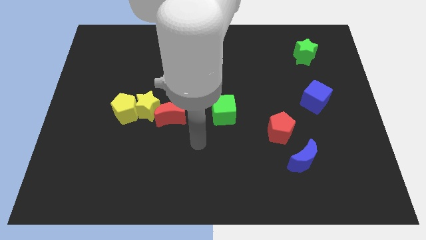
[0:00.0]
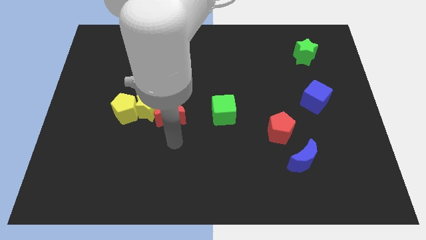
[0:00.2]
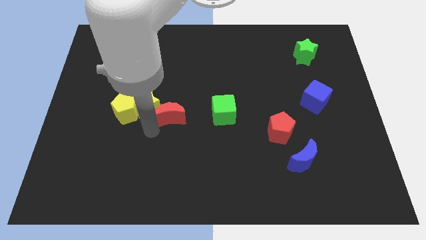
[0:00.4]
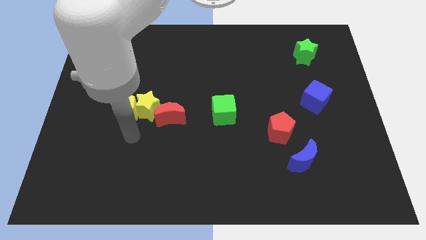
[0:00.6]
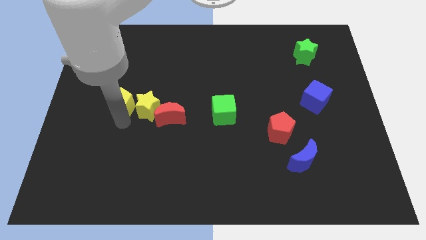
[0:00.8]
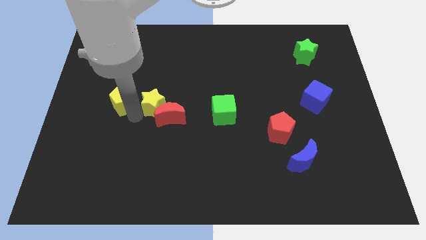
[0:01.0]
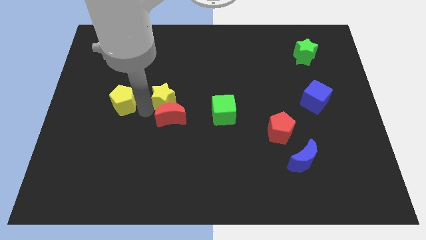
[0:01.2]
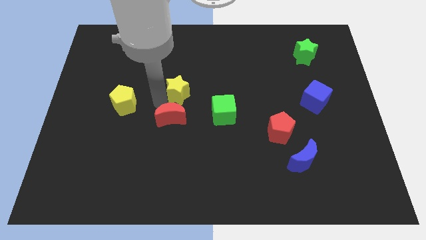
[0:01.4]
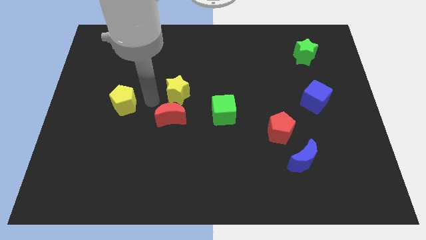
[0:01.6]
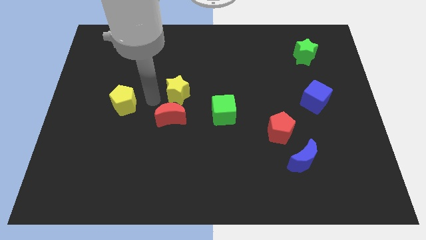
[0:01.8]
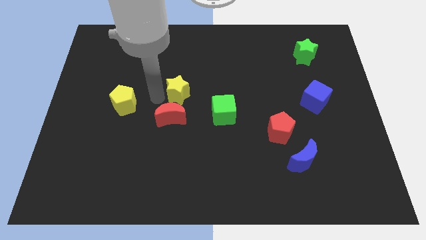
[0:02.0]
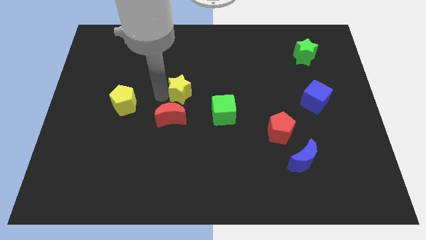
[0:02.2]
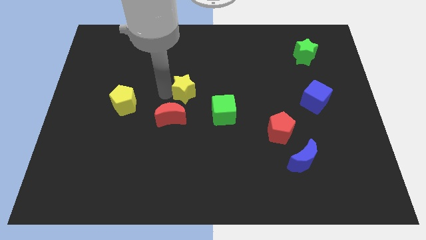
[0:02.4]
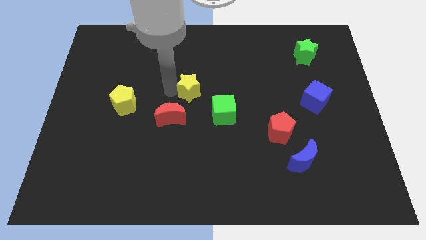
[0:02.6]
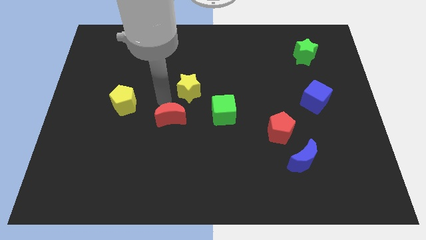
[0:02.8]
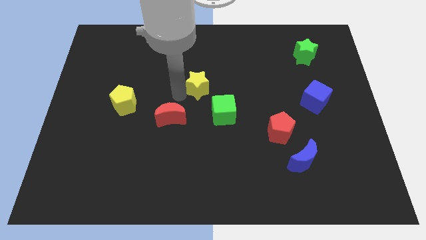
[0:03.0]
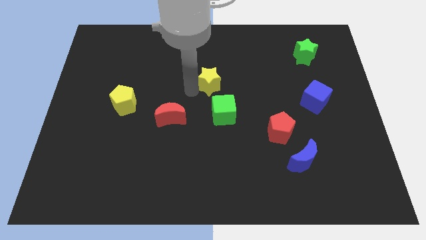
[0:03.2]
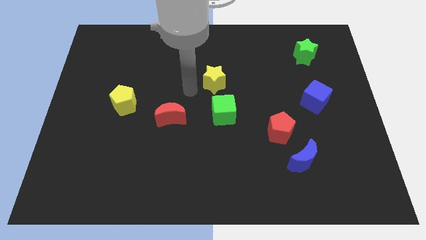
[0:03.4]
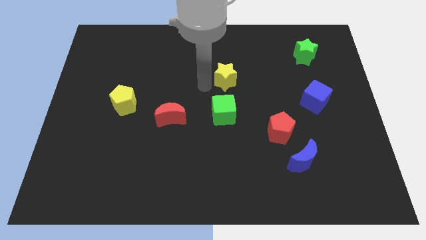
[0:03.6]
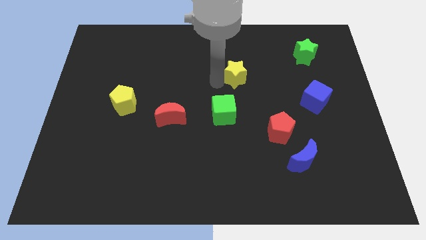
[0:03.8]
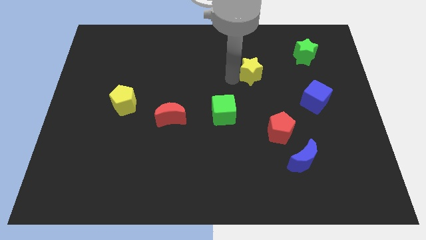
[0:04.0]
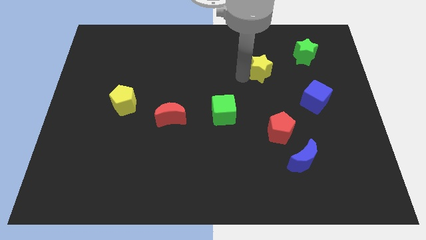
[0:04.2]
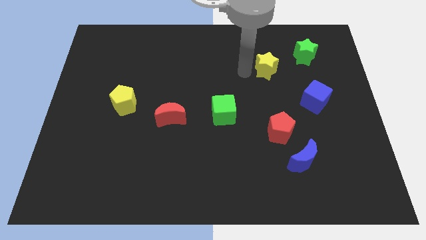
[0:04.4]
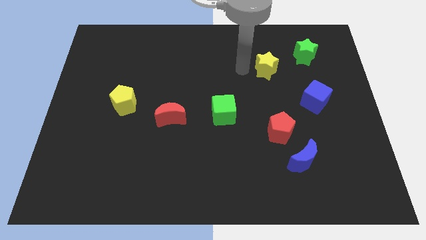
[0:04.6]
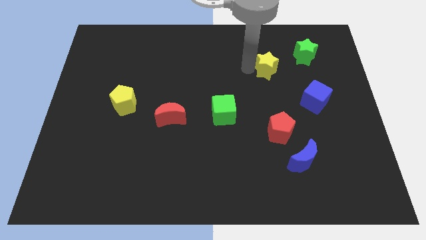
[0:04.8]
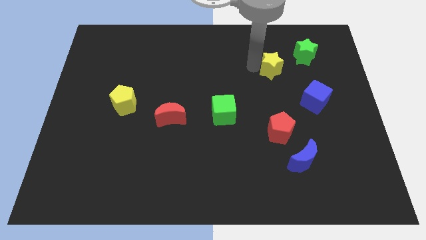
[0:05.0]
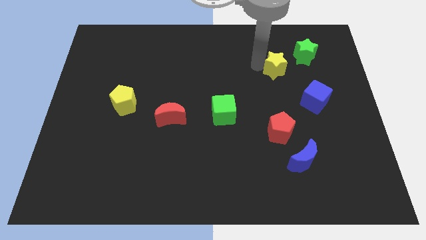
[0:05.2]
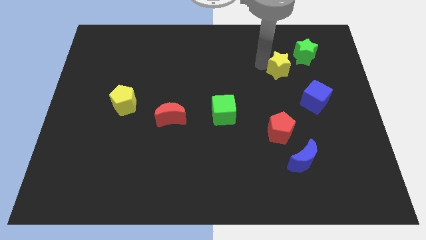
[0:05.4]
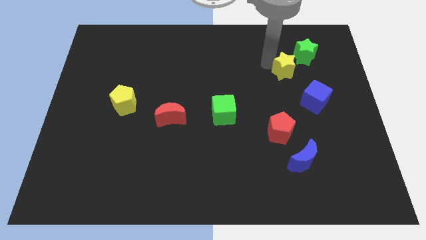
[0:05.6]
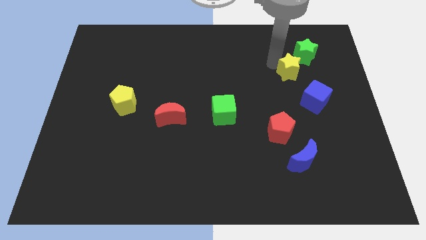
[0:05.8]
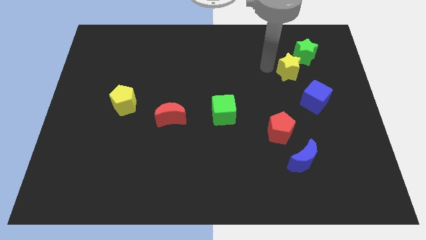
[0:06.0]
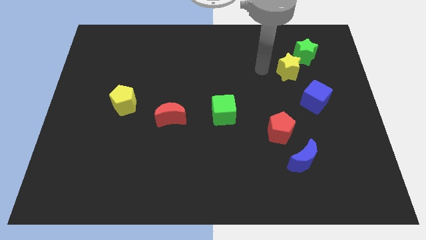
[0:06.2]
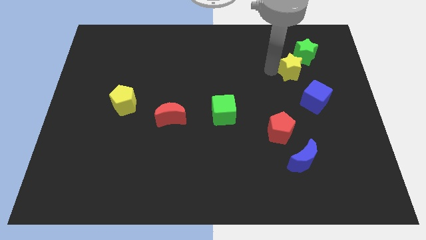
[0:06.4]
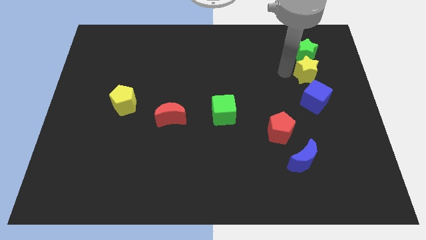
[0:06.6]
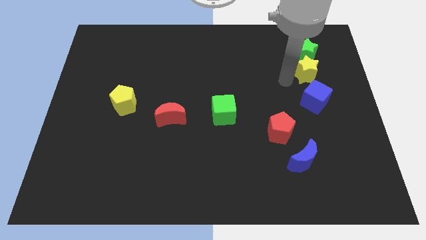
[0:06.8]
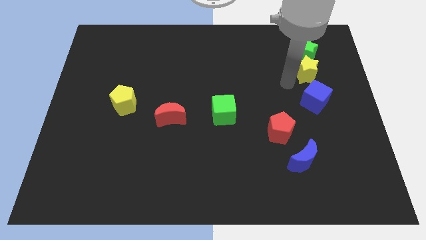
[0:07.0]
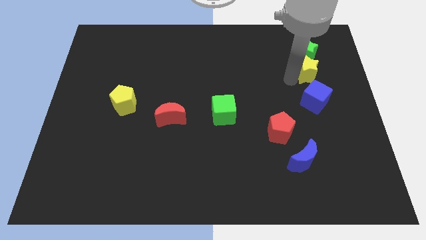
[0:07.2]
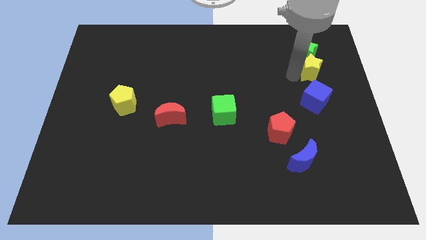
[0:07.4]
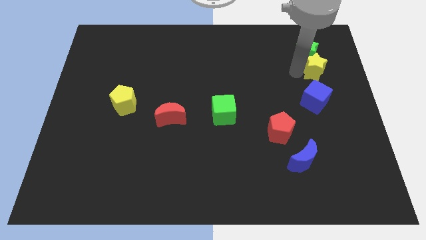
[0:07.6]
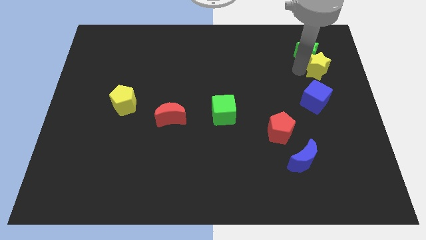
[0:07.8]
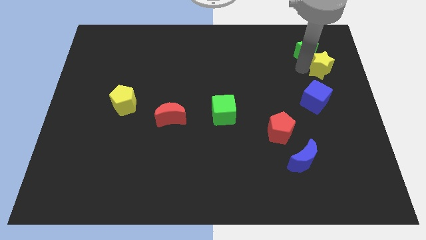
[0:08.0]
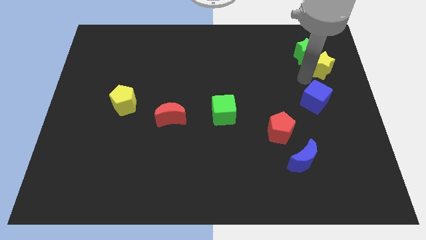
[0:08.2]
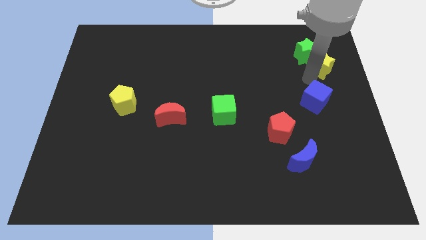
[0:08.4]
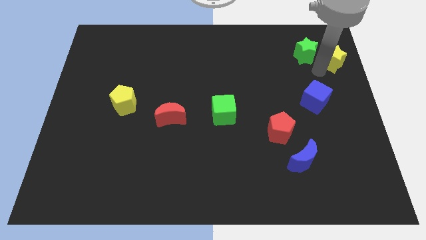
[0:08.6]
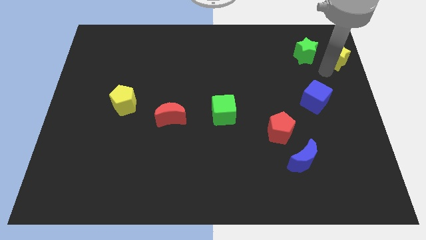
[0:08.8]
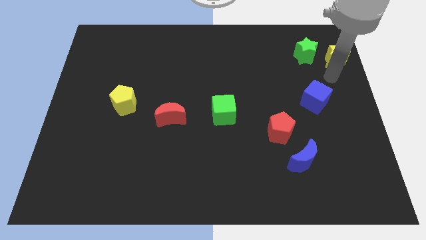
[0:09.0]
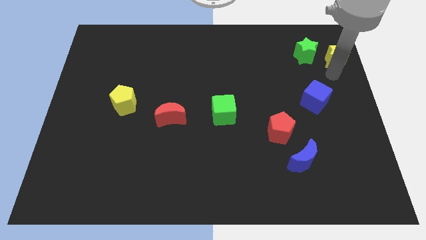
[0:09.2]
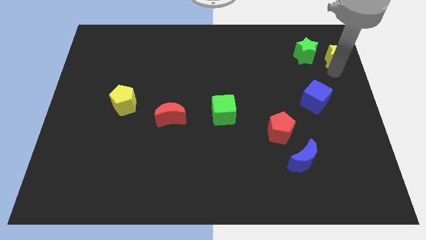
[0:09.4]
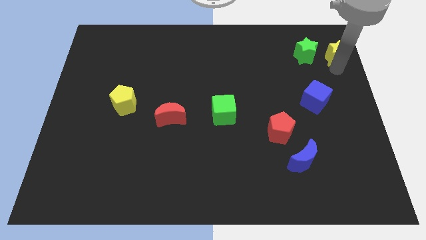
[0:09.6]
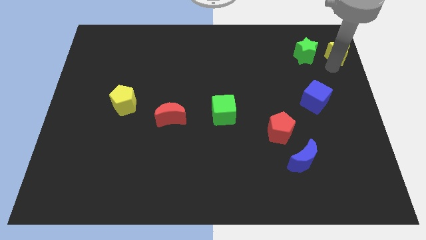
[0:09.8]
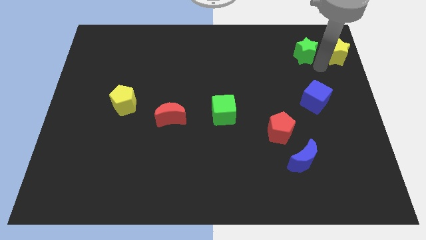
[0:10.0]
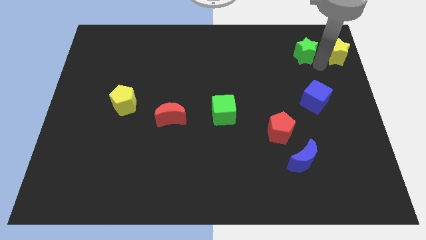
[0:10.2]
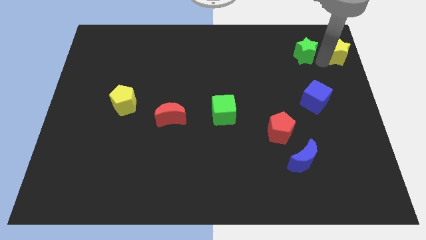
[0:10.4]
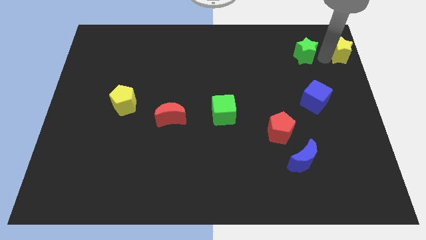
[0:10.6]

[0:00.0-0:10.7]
slide the yellow star to the upper right corner

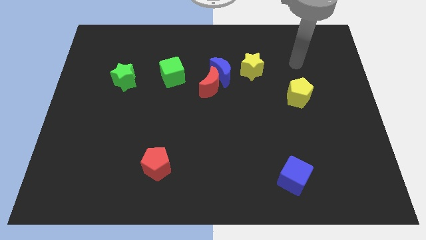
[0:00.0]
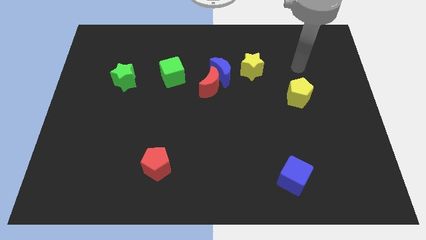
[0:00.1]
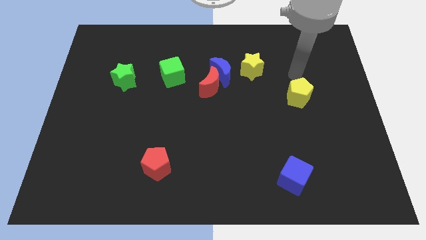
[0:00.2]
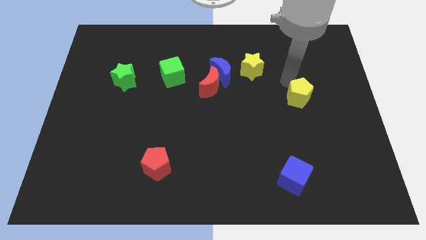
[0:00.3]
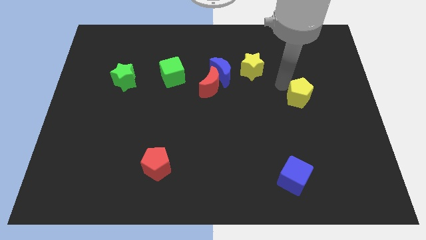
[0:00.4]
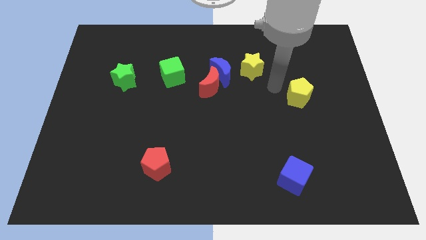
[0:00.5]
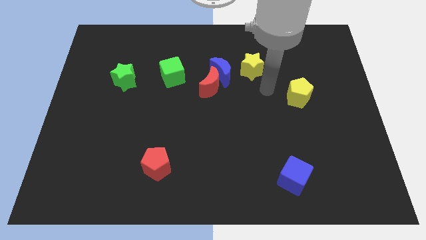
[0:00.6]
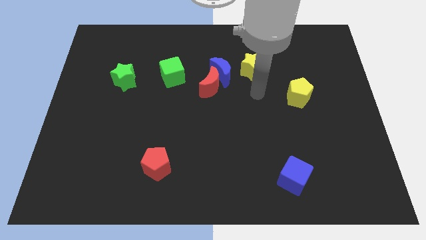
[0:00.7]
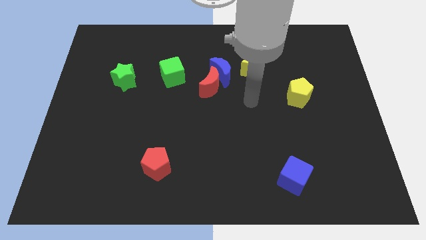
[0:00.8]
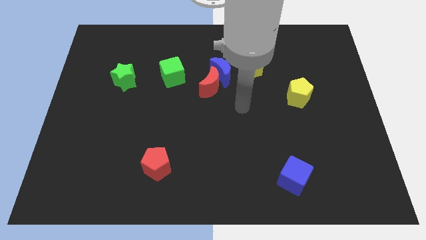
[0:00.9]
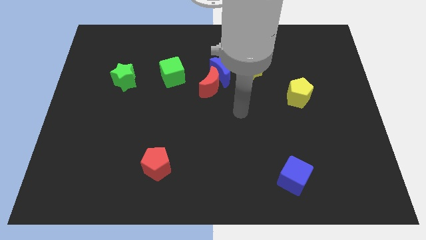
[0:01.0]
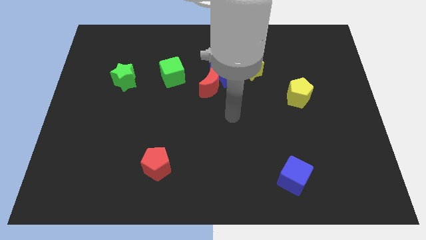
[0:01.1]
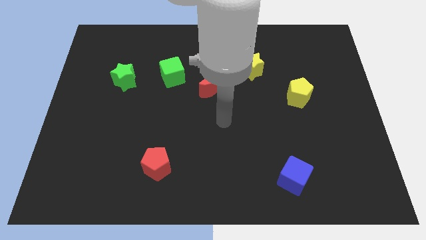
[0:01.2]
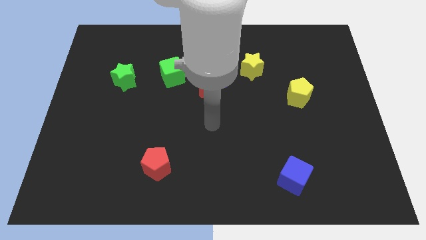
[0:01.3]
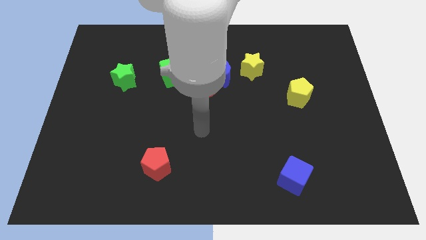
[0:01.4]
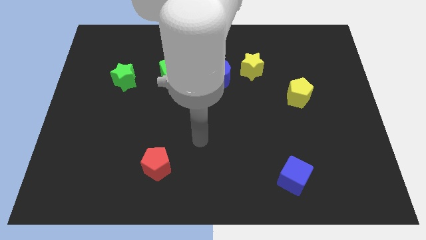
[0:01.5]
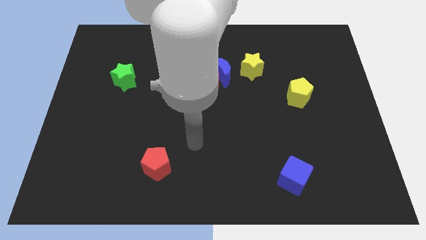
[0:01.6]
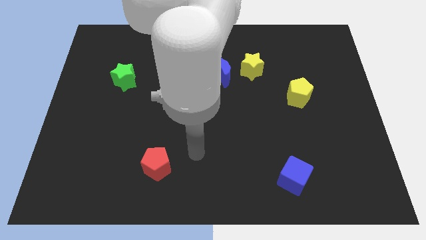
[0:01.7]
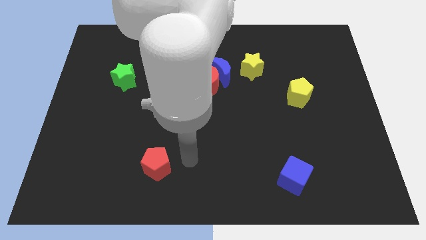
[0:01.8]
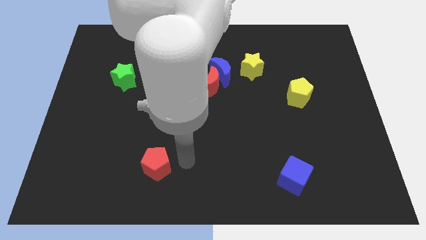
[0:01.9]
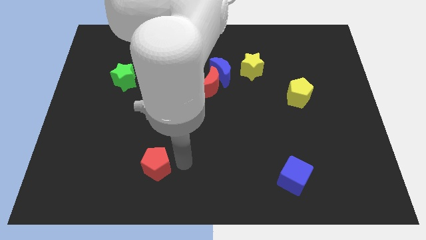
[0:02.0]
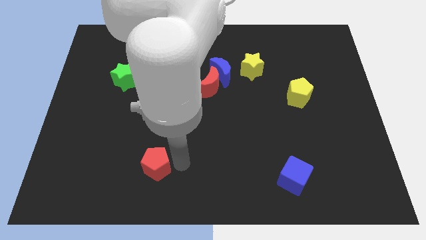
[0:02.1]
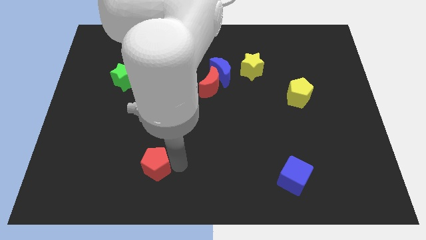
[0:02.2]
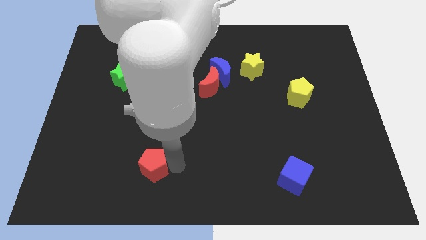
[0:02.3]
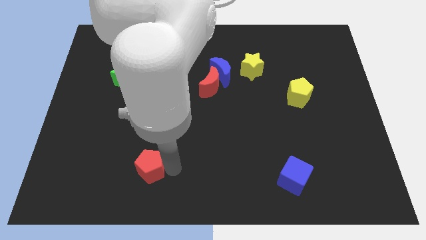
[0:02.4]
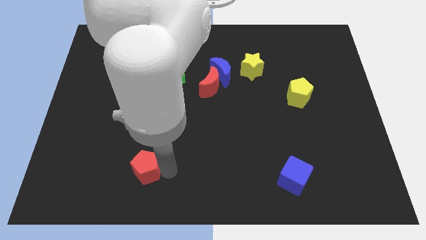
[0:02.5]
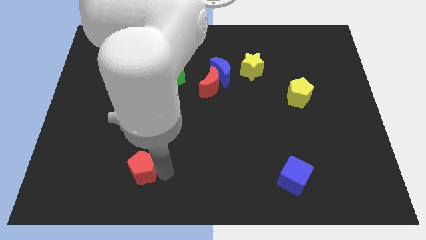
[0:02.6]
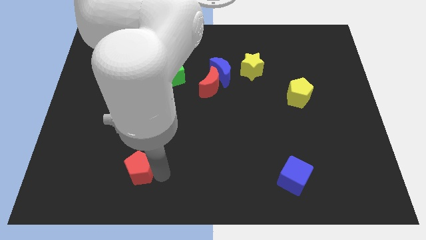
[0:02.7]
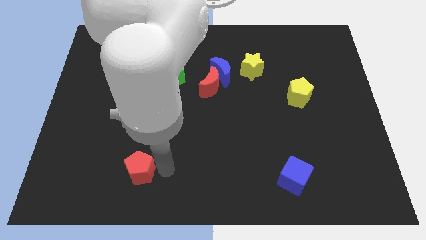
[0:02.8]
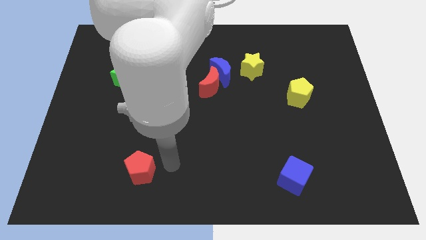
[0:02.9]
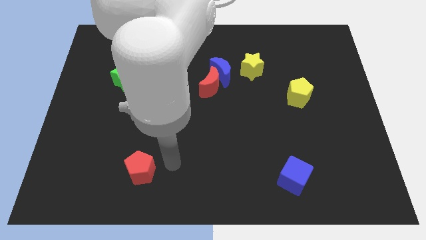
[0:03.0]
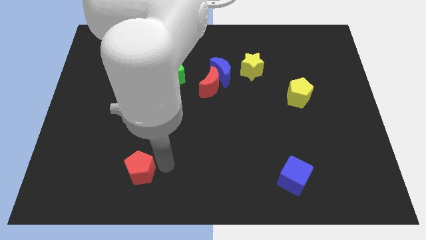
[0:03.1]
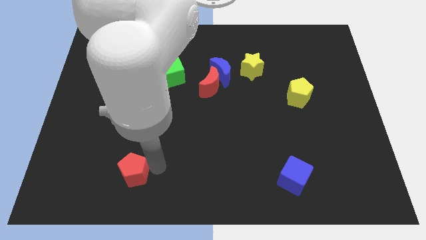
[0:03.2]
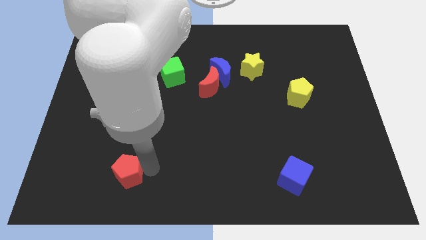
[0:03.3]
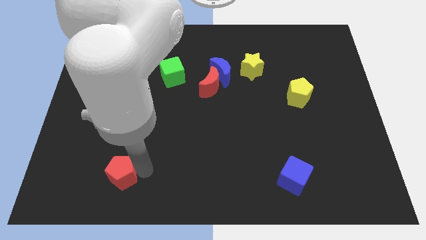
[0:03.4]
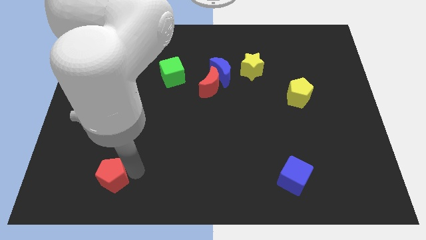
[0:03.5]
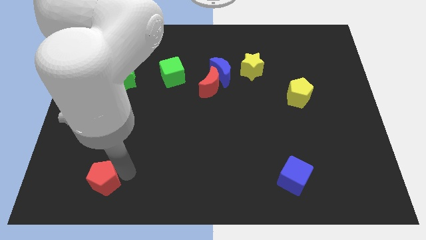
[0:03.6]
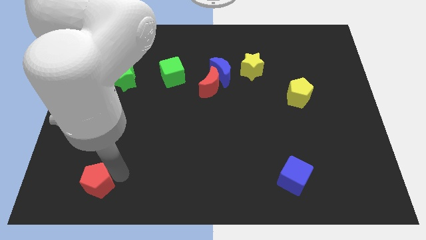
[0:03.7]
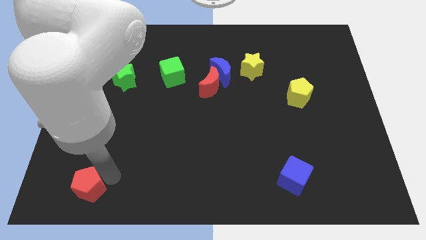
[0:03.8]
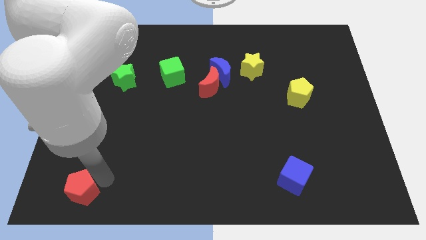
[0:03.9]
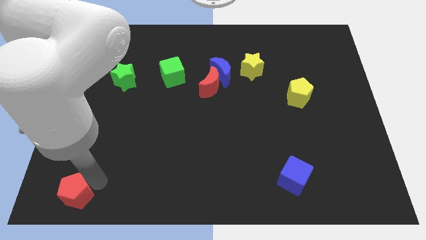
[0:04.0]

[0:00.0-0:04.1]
slide the red pentagon to the bottom left corner
